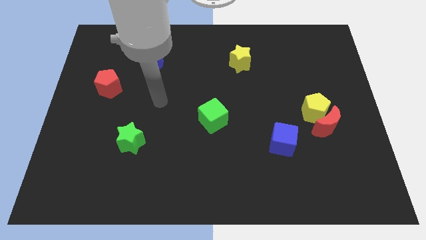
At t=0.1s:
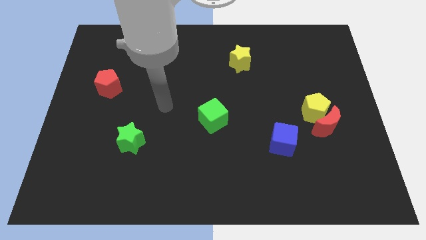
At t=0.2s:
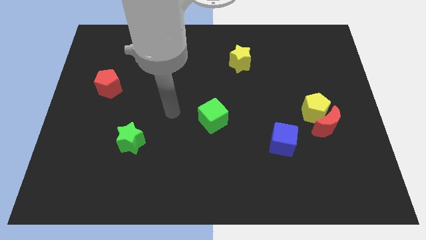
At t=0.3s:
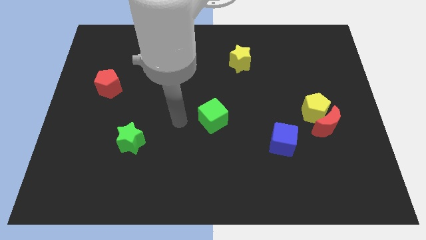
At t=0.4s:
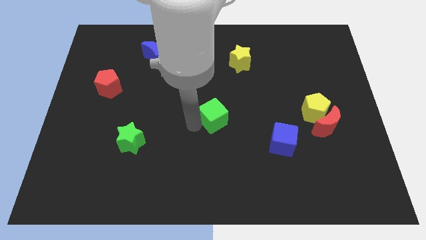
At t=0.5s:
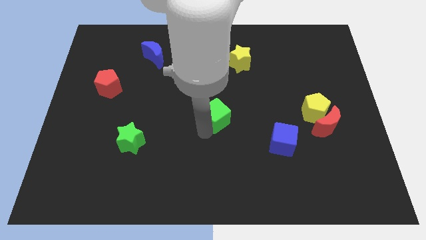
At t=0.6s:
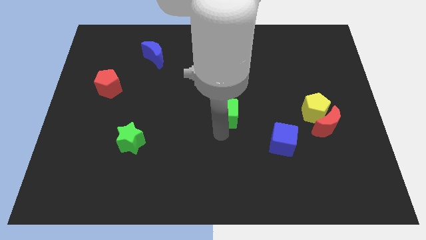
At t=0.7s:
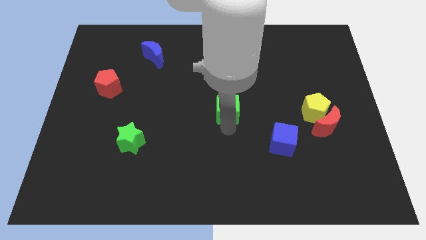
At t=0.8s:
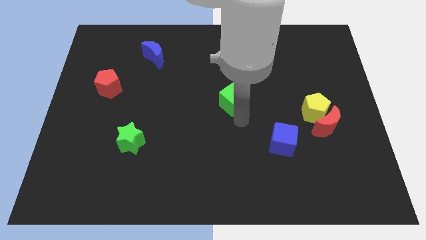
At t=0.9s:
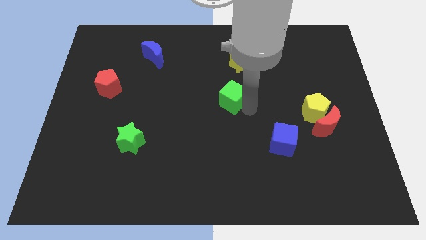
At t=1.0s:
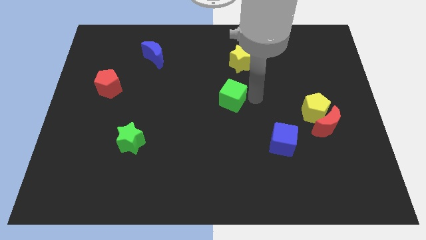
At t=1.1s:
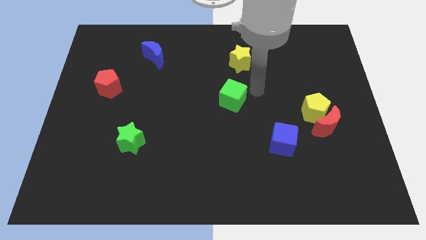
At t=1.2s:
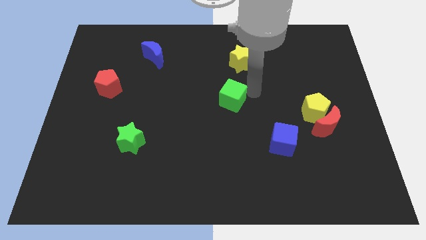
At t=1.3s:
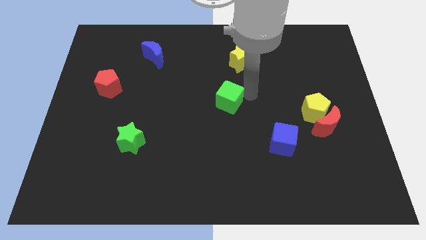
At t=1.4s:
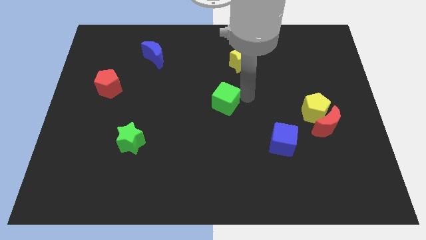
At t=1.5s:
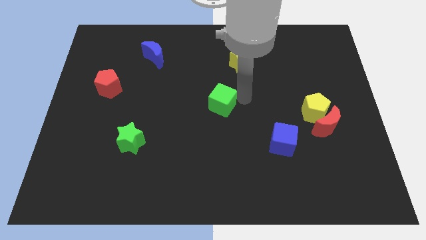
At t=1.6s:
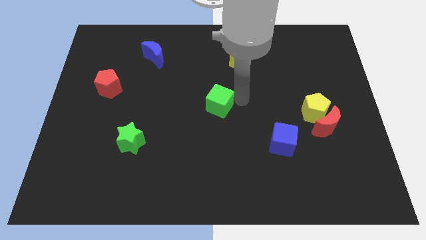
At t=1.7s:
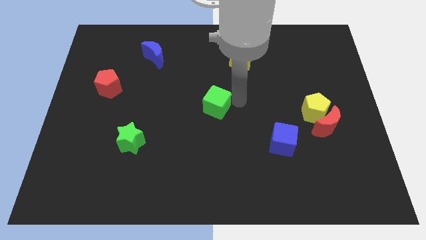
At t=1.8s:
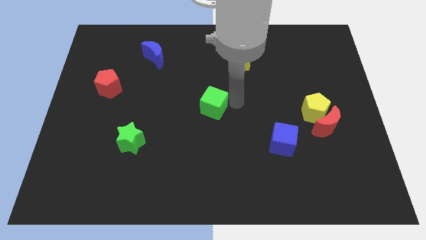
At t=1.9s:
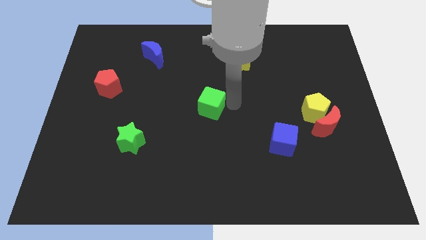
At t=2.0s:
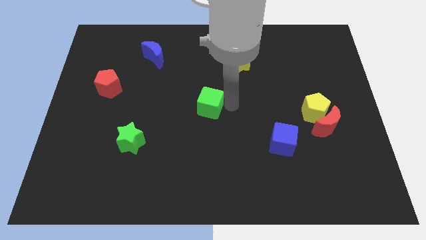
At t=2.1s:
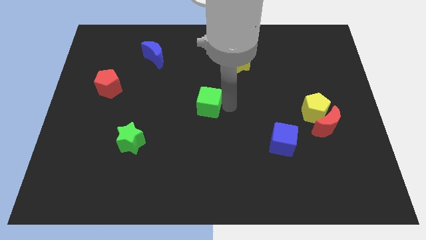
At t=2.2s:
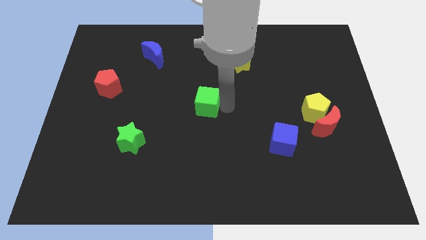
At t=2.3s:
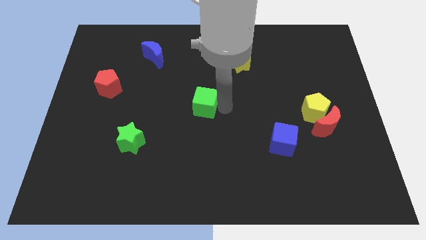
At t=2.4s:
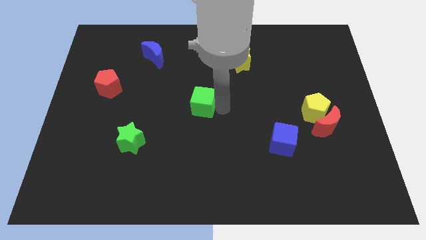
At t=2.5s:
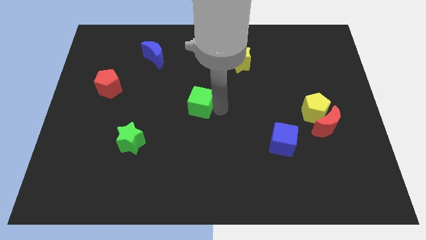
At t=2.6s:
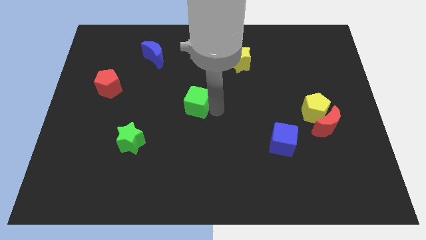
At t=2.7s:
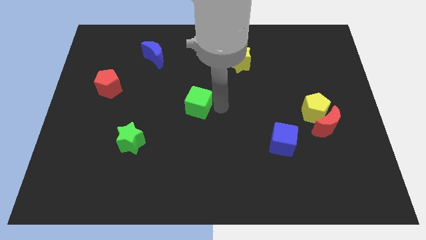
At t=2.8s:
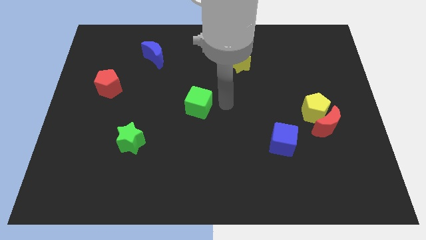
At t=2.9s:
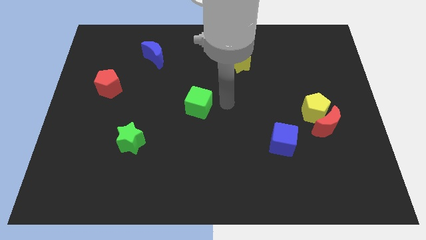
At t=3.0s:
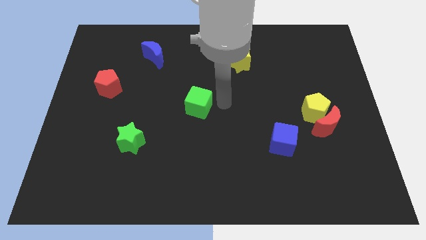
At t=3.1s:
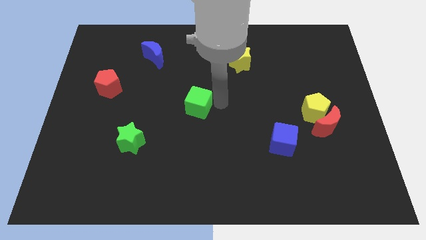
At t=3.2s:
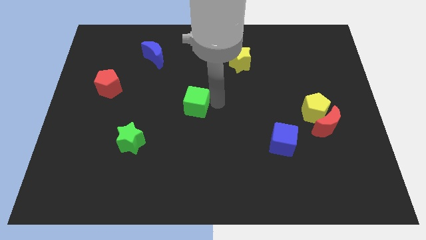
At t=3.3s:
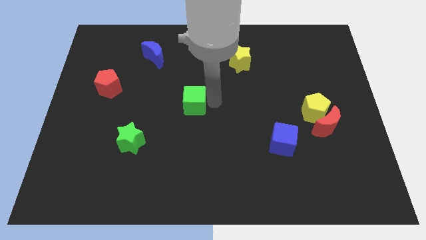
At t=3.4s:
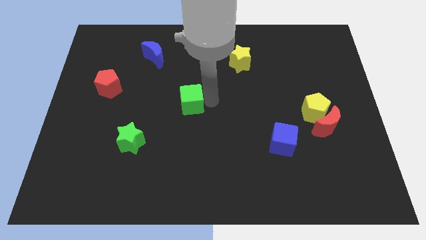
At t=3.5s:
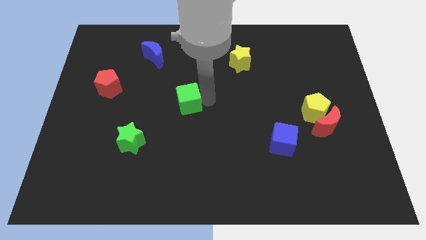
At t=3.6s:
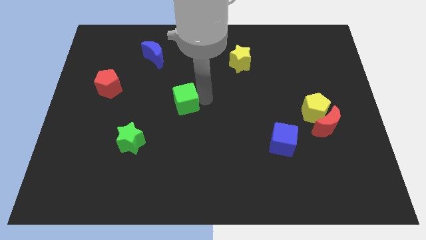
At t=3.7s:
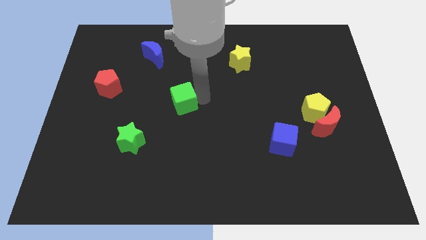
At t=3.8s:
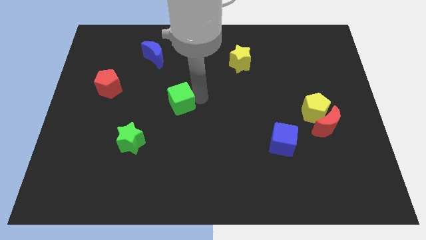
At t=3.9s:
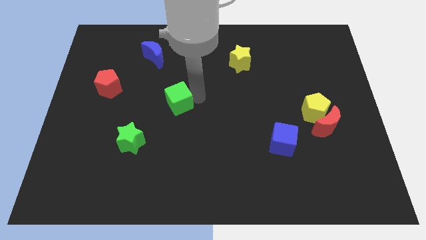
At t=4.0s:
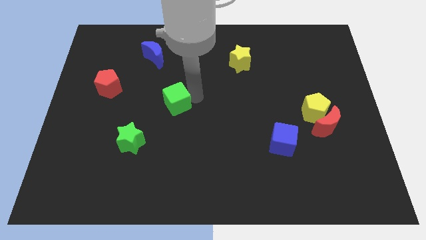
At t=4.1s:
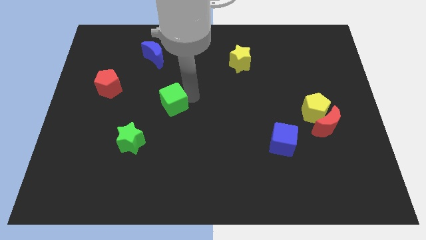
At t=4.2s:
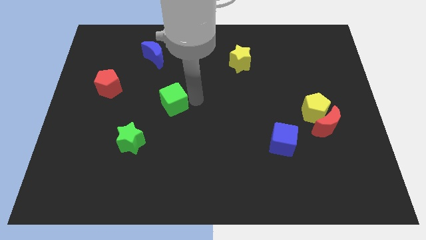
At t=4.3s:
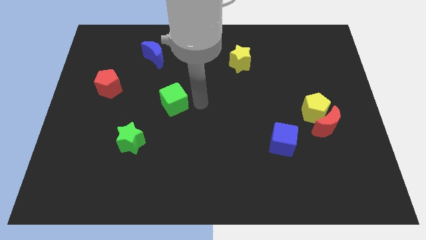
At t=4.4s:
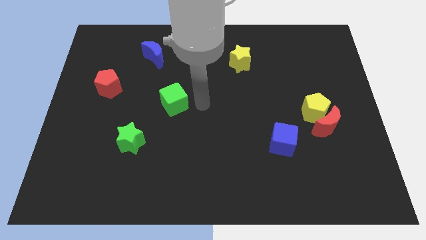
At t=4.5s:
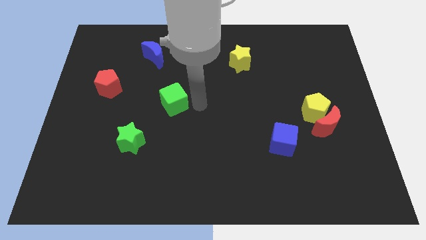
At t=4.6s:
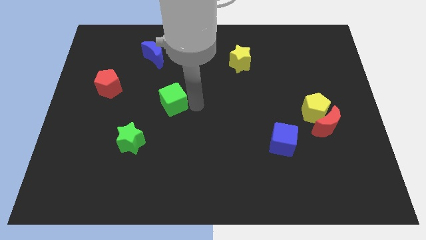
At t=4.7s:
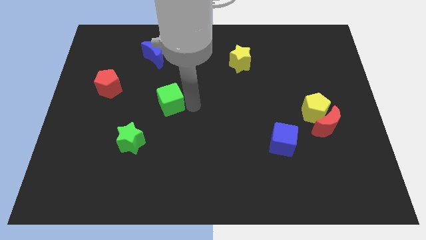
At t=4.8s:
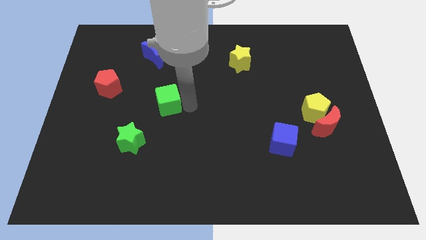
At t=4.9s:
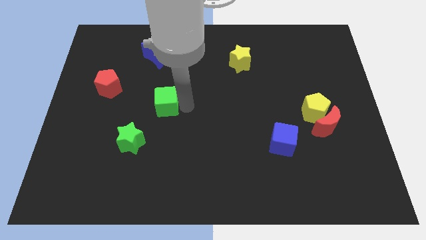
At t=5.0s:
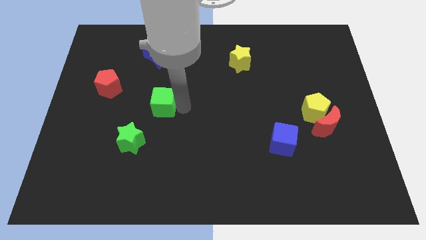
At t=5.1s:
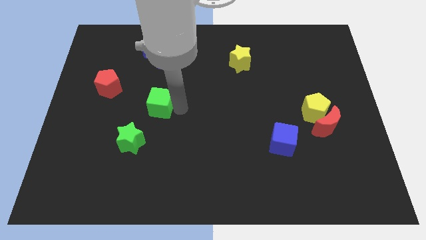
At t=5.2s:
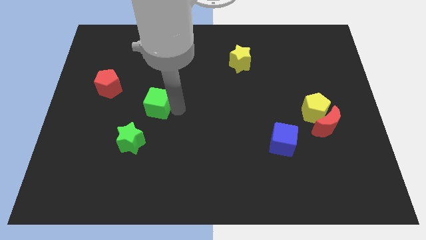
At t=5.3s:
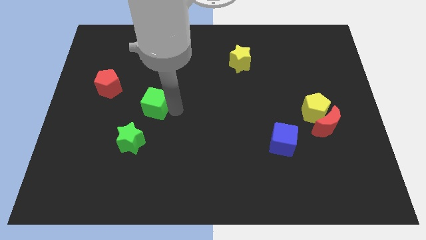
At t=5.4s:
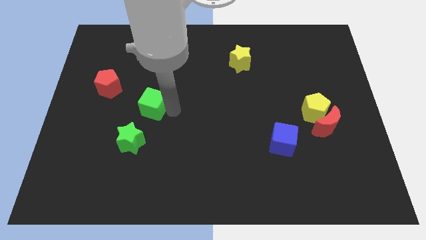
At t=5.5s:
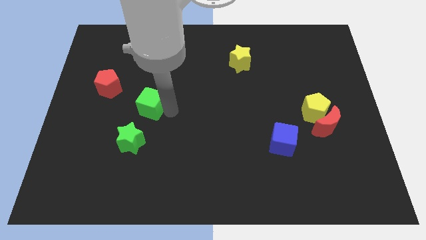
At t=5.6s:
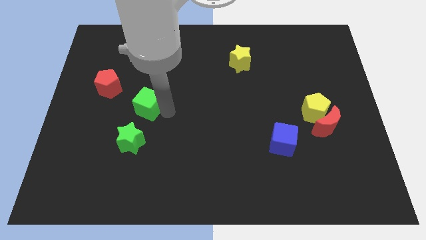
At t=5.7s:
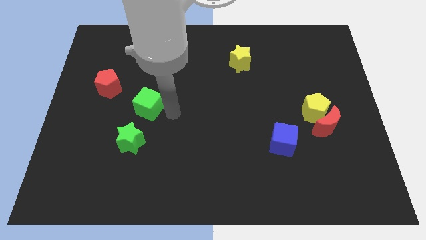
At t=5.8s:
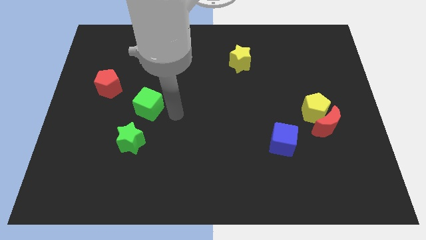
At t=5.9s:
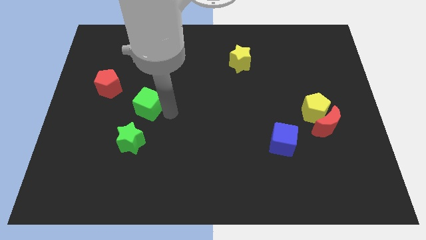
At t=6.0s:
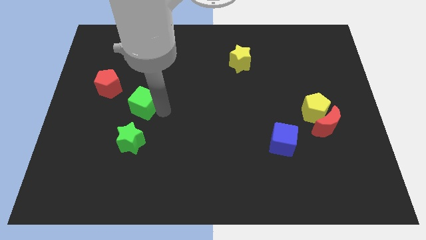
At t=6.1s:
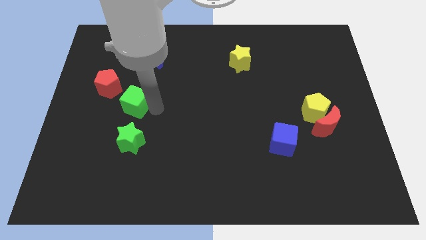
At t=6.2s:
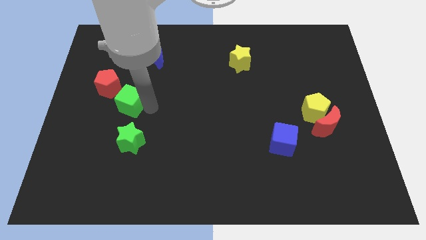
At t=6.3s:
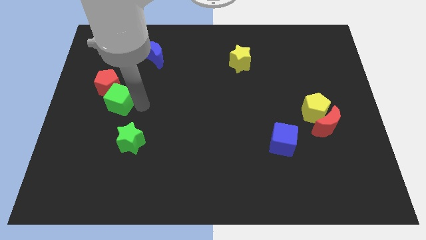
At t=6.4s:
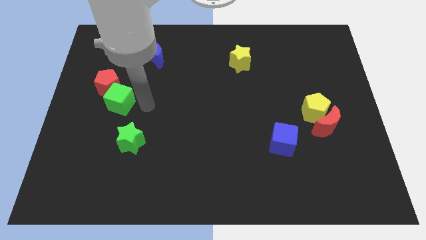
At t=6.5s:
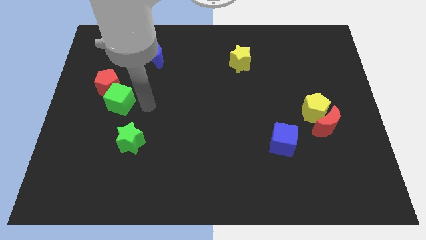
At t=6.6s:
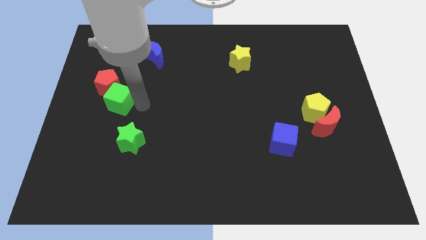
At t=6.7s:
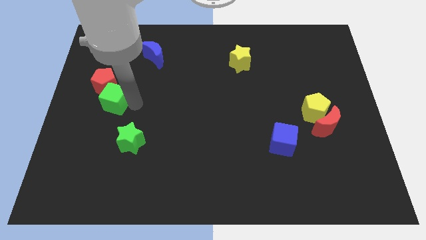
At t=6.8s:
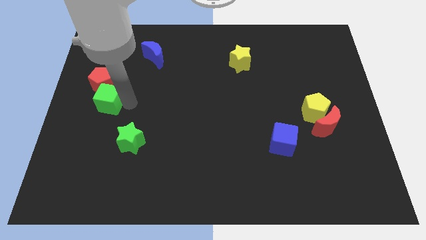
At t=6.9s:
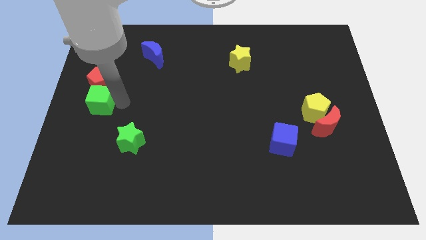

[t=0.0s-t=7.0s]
move the green cube to the left side
